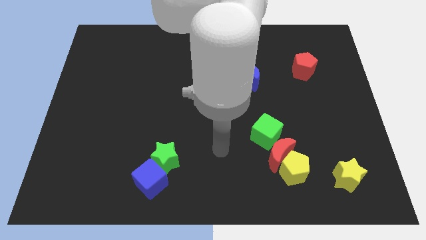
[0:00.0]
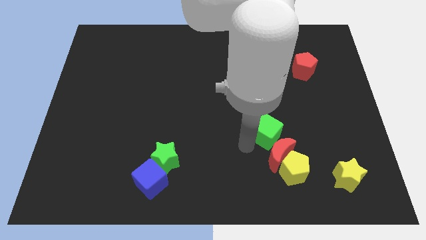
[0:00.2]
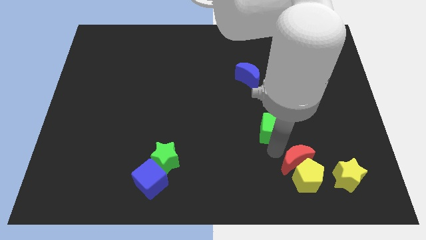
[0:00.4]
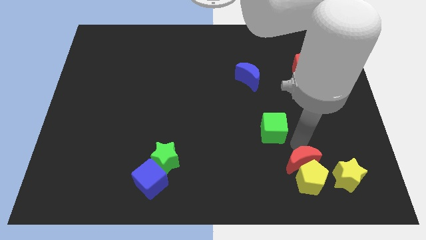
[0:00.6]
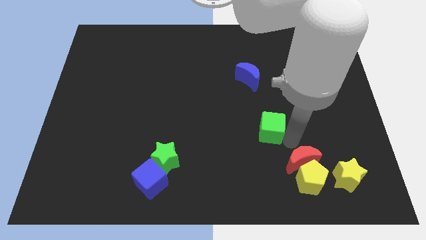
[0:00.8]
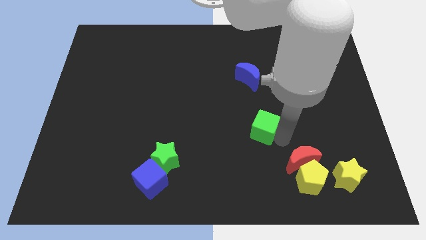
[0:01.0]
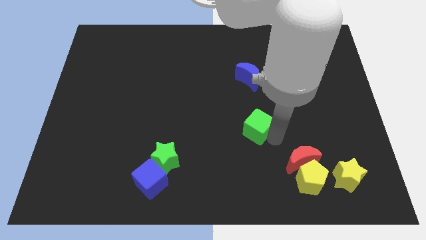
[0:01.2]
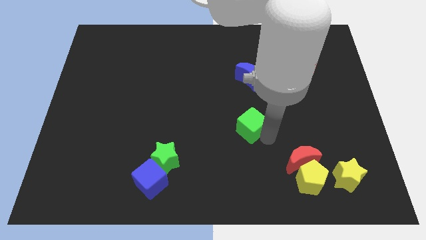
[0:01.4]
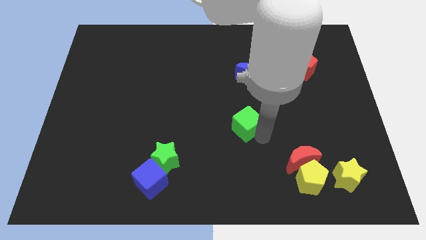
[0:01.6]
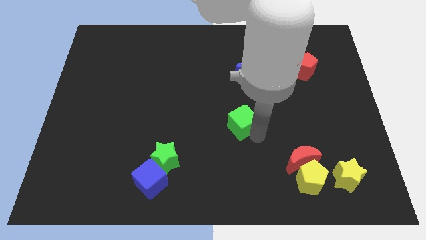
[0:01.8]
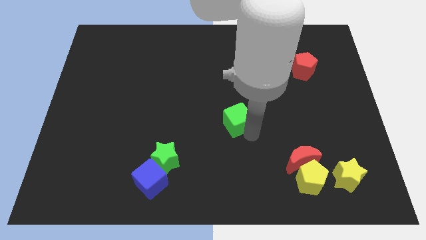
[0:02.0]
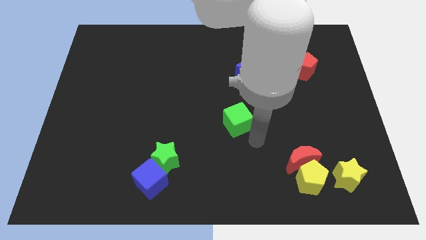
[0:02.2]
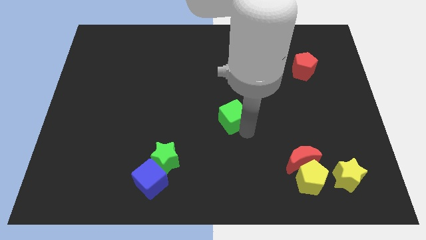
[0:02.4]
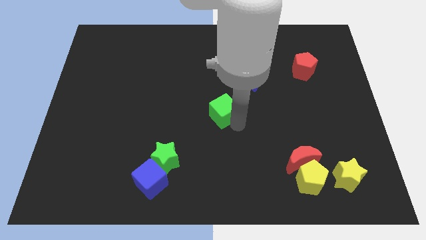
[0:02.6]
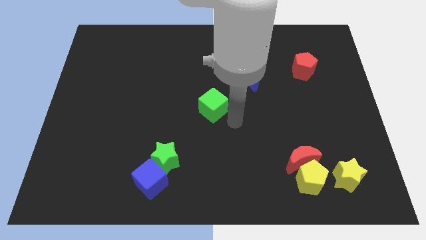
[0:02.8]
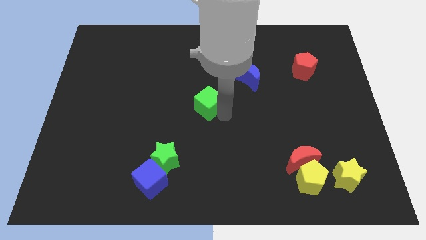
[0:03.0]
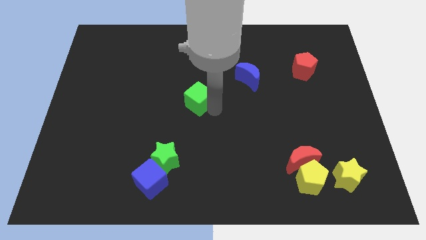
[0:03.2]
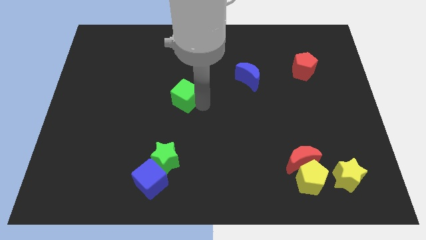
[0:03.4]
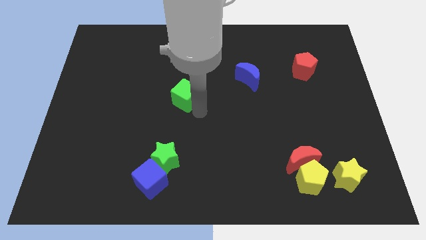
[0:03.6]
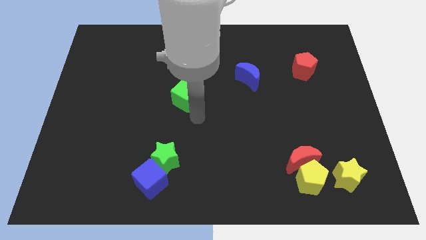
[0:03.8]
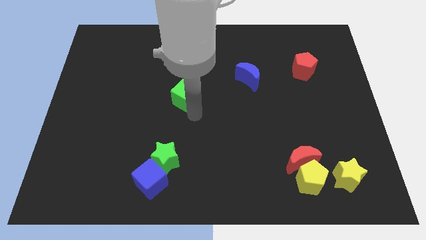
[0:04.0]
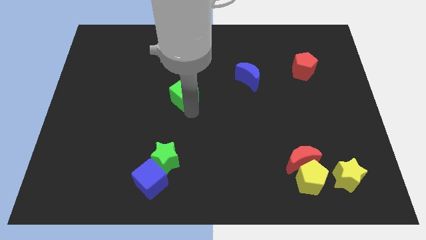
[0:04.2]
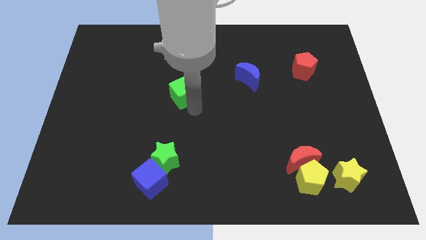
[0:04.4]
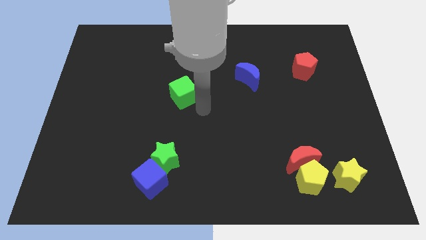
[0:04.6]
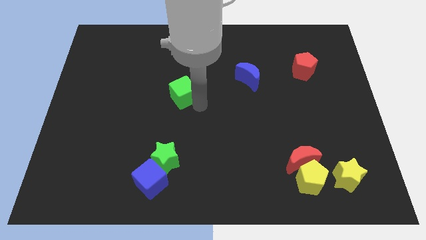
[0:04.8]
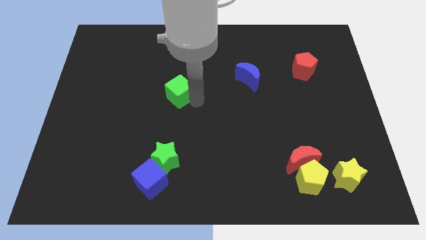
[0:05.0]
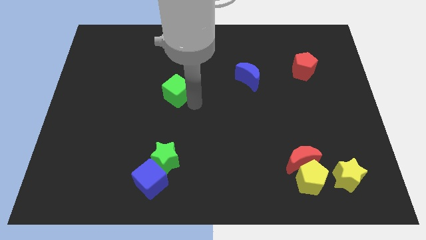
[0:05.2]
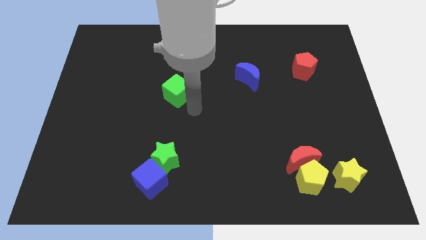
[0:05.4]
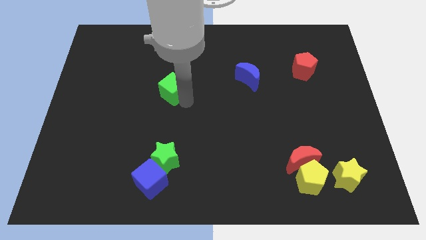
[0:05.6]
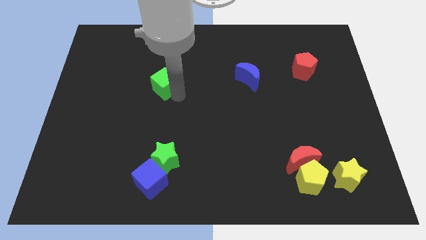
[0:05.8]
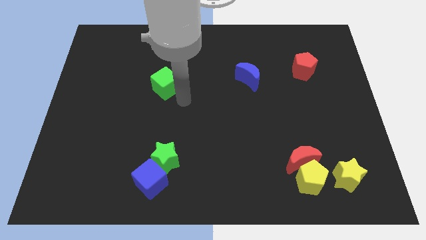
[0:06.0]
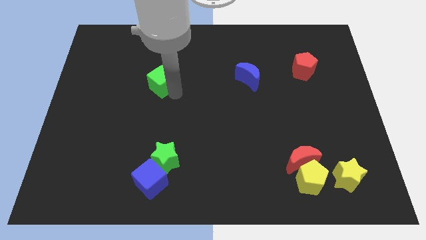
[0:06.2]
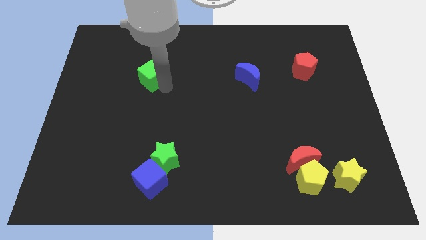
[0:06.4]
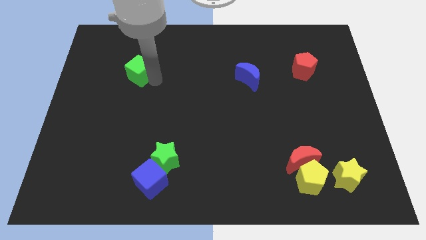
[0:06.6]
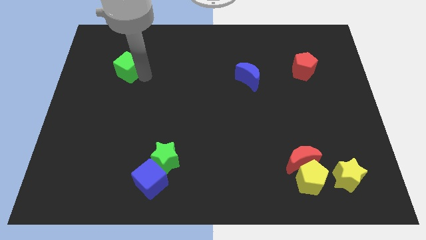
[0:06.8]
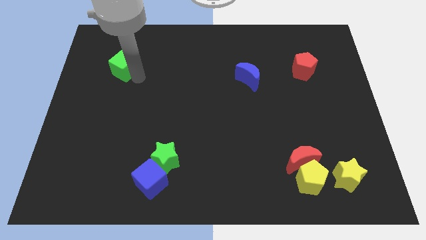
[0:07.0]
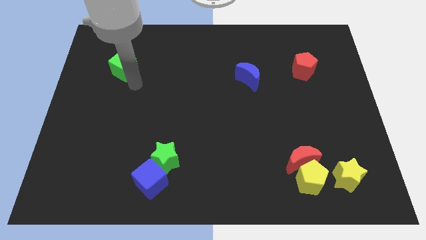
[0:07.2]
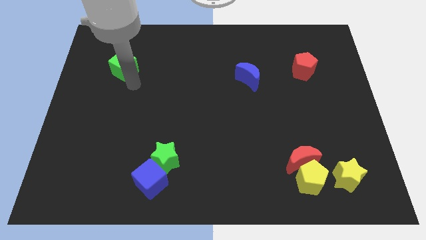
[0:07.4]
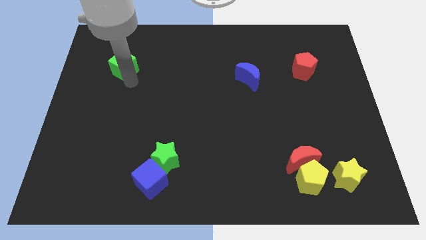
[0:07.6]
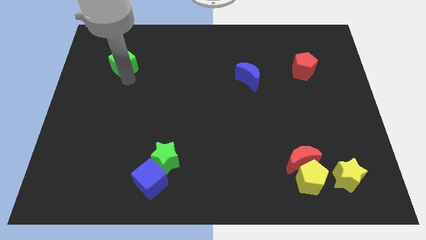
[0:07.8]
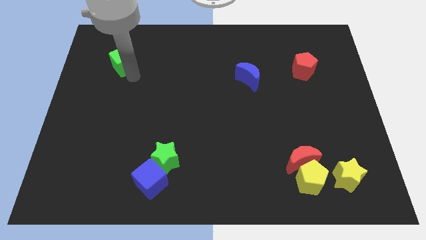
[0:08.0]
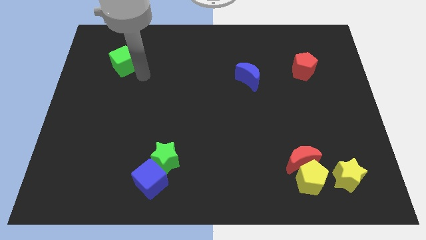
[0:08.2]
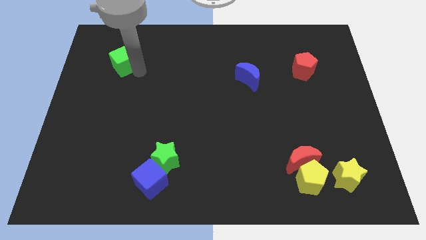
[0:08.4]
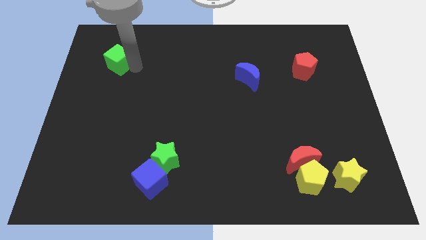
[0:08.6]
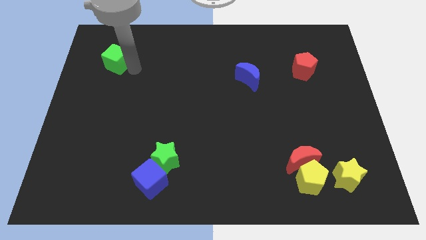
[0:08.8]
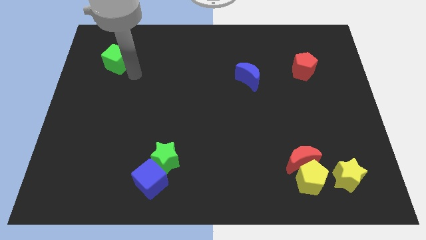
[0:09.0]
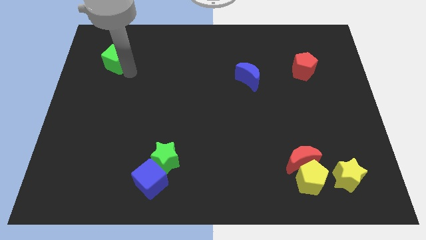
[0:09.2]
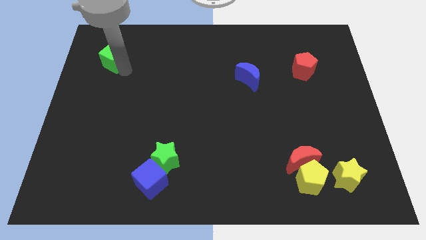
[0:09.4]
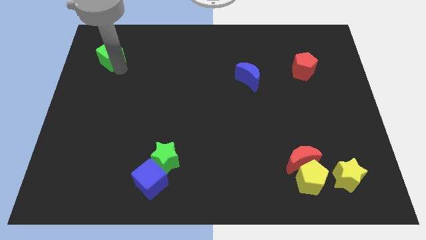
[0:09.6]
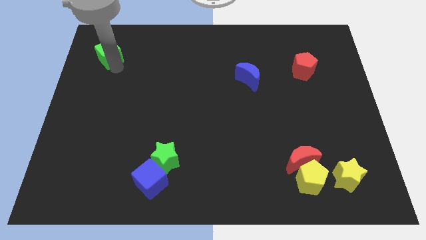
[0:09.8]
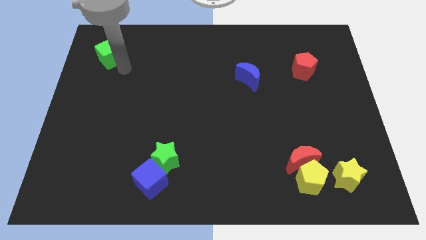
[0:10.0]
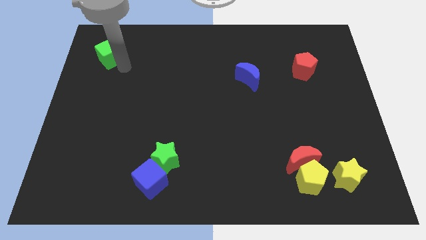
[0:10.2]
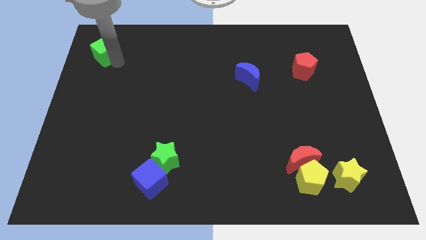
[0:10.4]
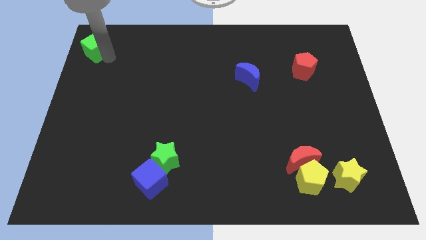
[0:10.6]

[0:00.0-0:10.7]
slide the green cube to the top left corner

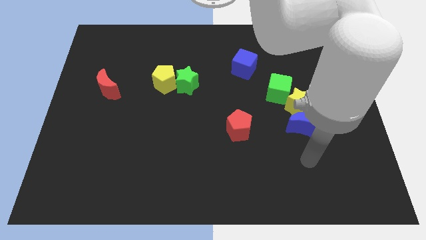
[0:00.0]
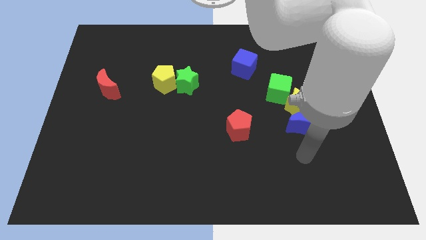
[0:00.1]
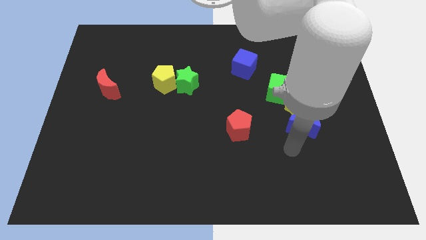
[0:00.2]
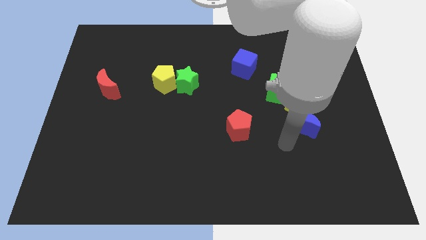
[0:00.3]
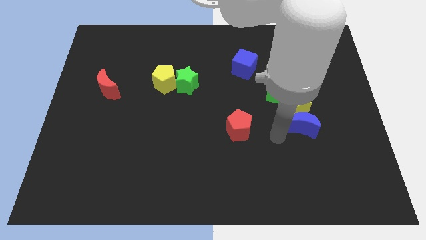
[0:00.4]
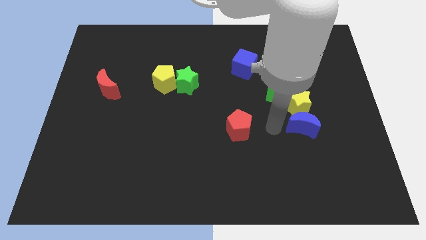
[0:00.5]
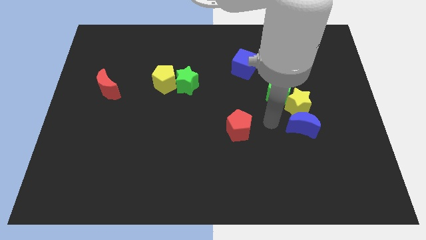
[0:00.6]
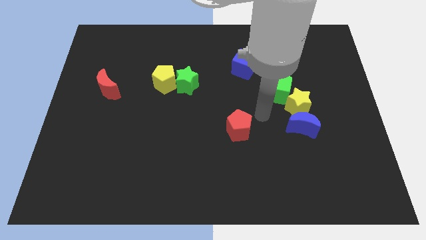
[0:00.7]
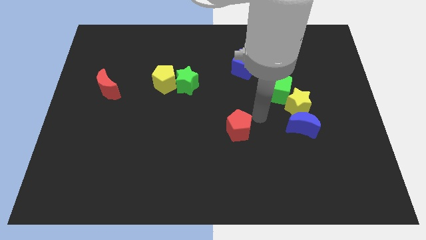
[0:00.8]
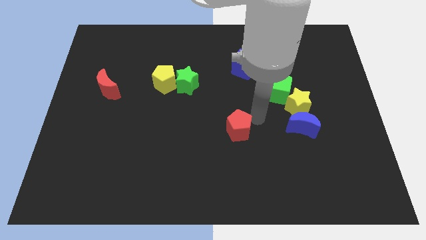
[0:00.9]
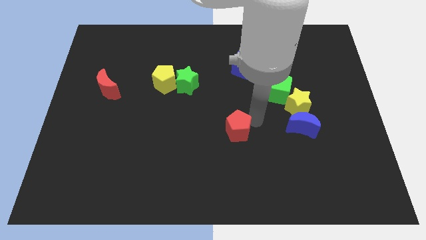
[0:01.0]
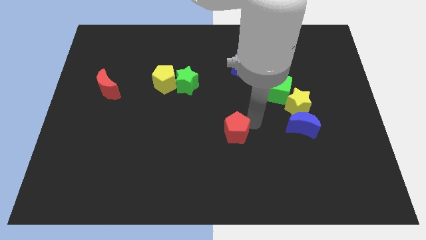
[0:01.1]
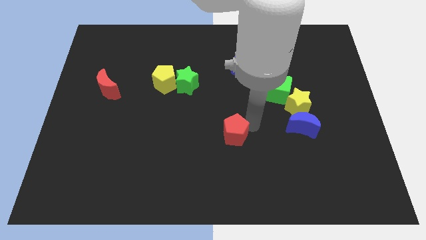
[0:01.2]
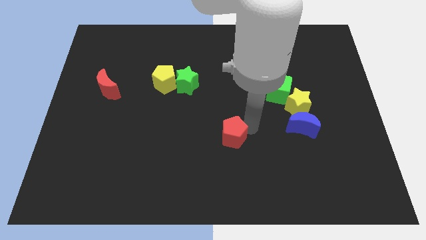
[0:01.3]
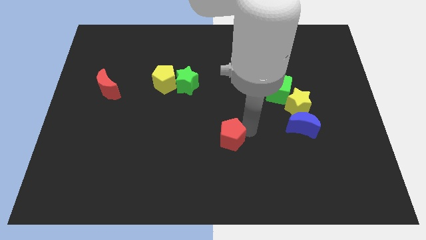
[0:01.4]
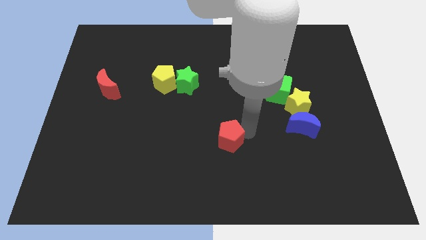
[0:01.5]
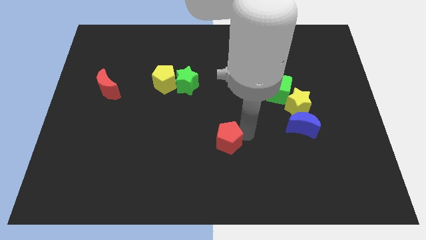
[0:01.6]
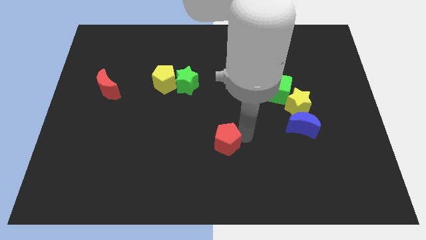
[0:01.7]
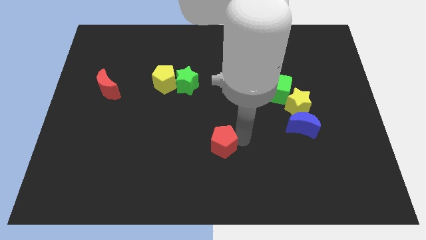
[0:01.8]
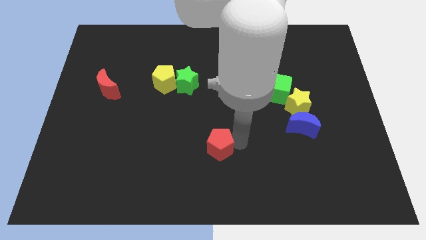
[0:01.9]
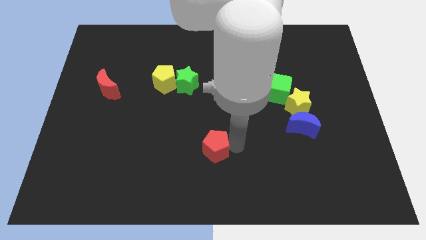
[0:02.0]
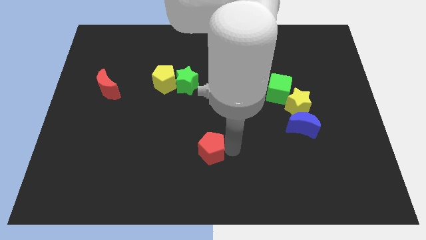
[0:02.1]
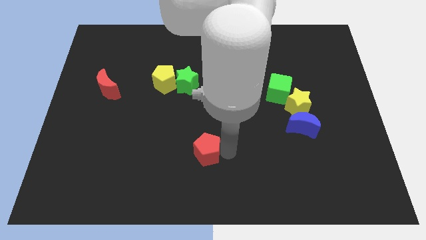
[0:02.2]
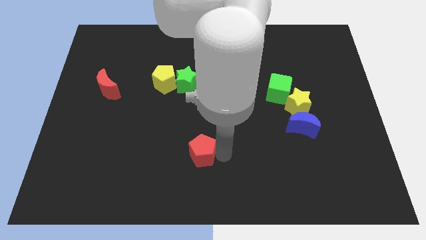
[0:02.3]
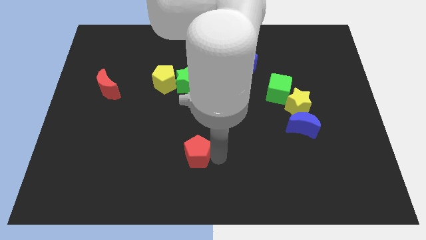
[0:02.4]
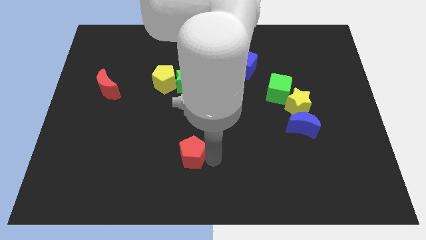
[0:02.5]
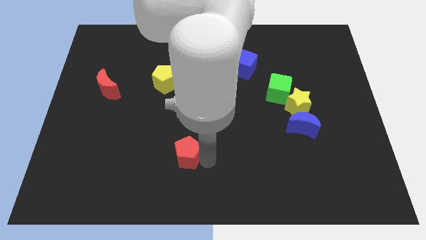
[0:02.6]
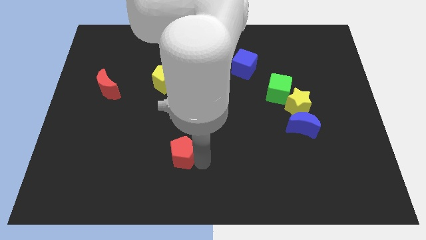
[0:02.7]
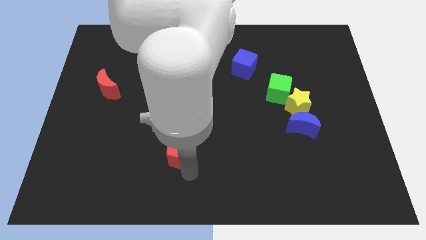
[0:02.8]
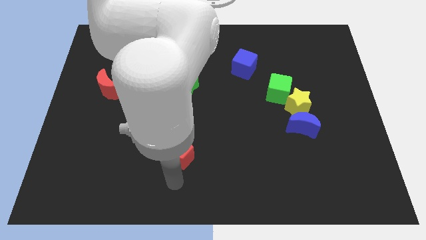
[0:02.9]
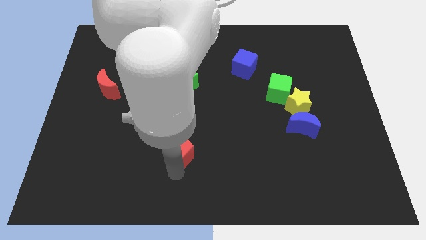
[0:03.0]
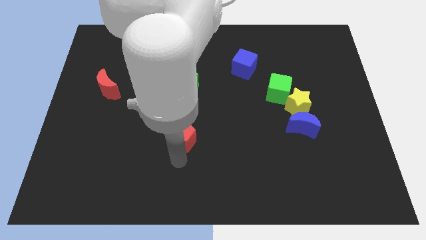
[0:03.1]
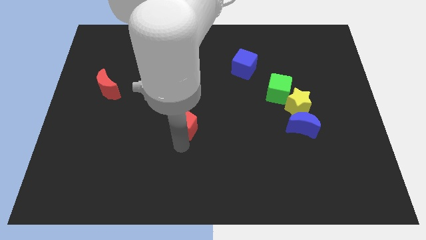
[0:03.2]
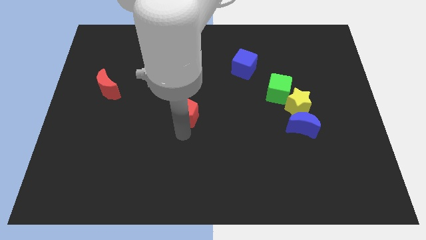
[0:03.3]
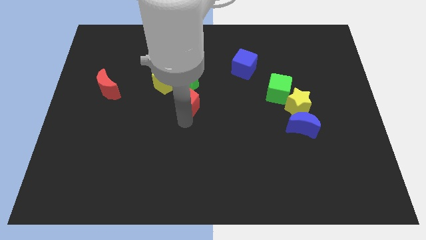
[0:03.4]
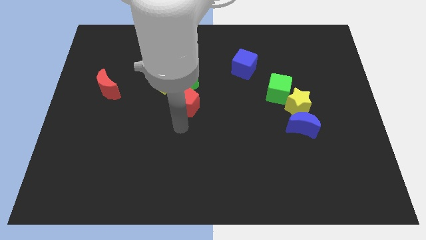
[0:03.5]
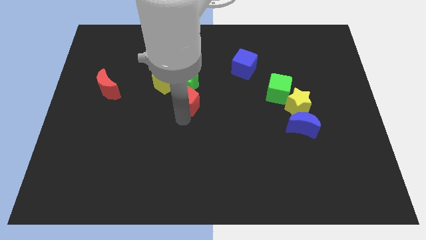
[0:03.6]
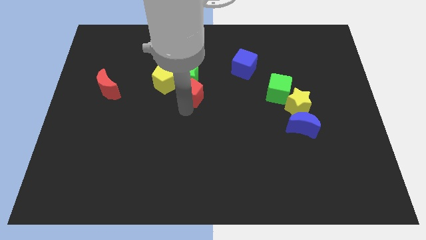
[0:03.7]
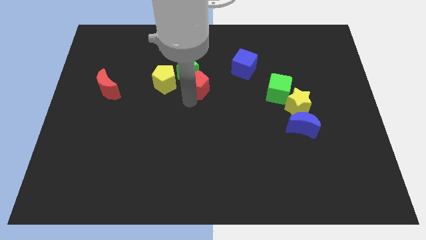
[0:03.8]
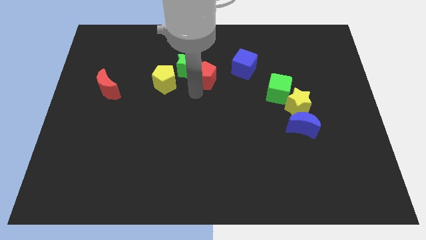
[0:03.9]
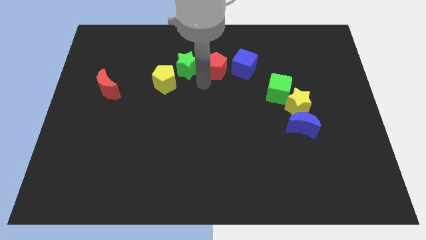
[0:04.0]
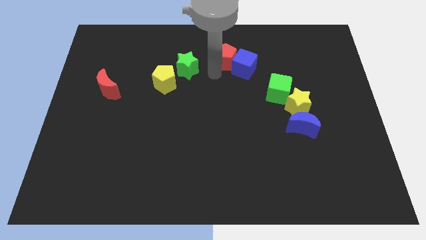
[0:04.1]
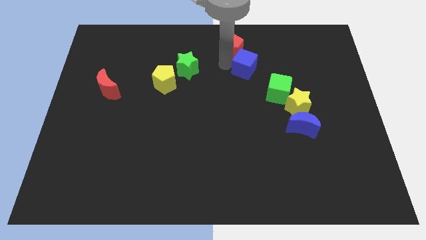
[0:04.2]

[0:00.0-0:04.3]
move the red pentagon to the top
